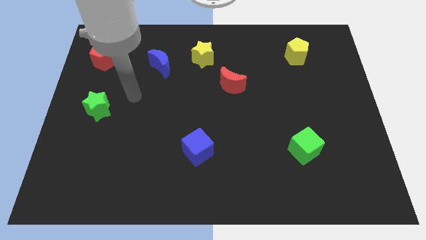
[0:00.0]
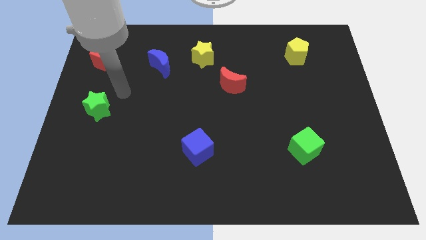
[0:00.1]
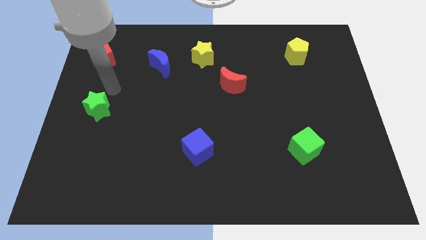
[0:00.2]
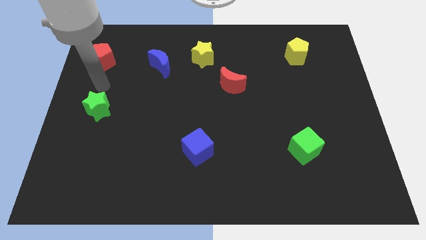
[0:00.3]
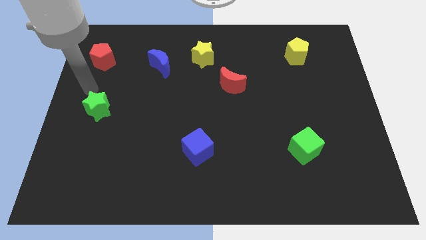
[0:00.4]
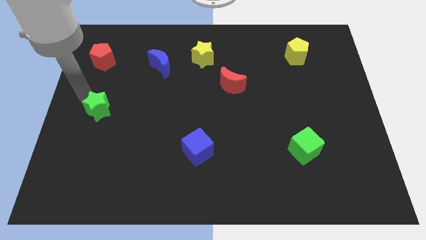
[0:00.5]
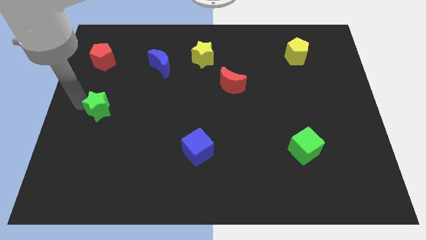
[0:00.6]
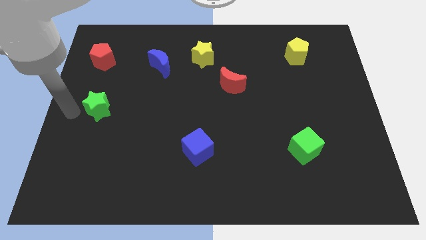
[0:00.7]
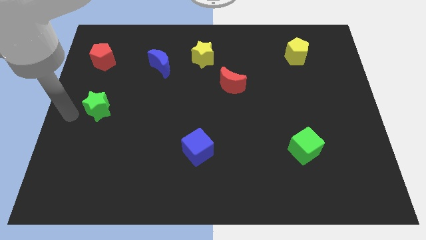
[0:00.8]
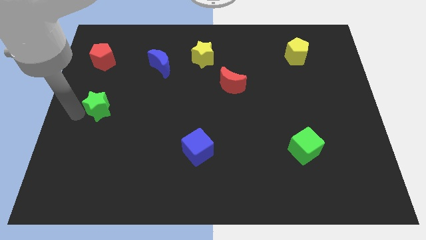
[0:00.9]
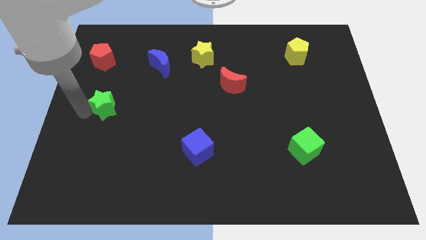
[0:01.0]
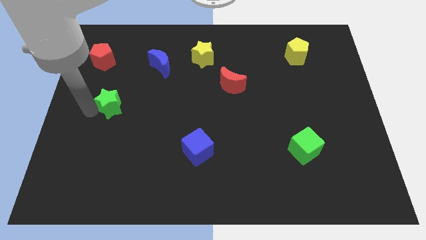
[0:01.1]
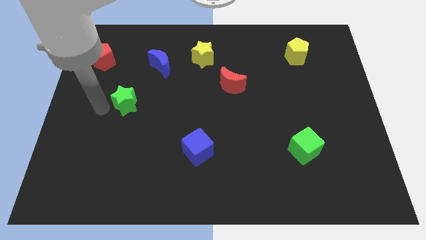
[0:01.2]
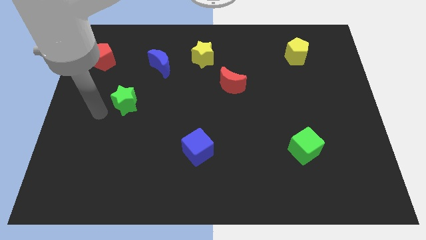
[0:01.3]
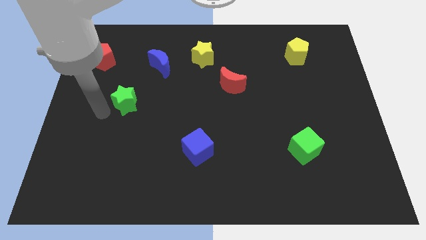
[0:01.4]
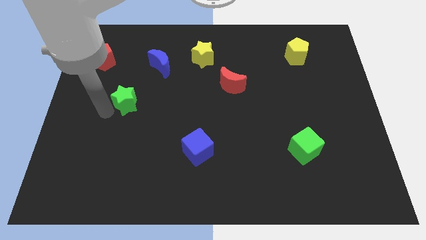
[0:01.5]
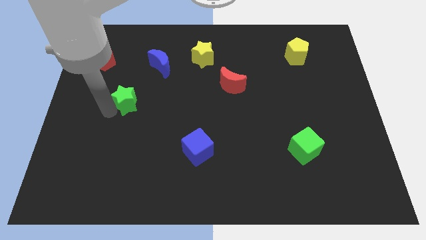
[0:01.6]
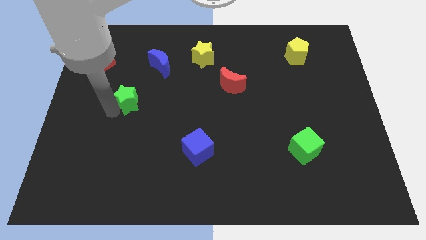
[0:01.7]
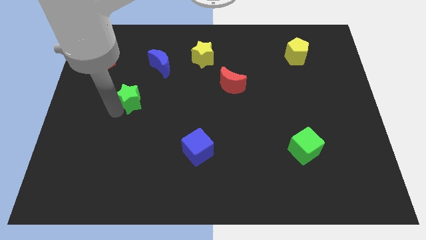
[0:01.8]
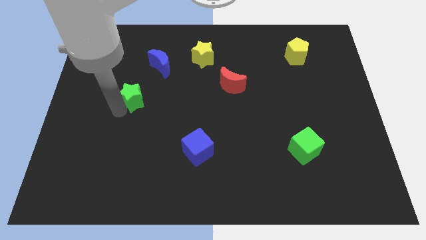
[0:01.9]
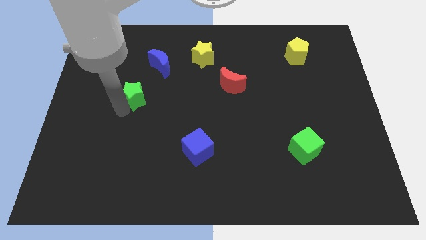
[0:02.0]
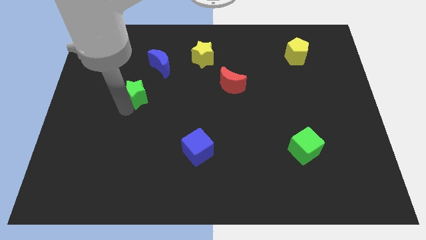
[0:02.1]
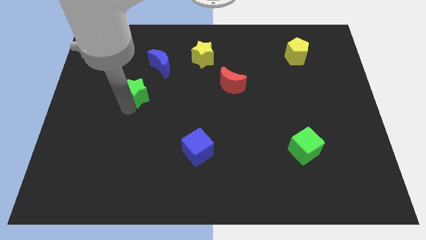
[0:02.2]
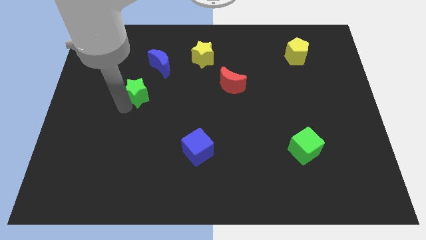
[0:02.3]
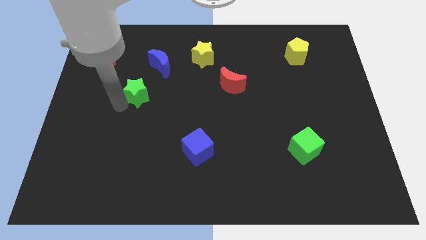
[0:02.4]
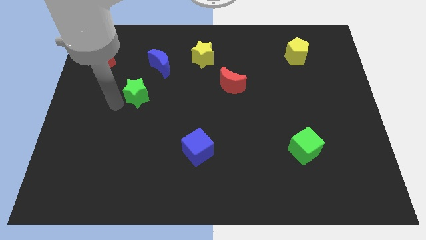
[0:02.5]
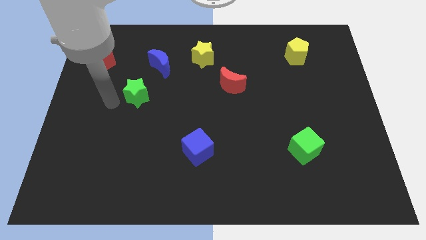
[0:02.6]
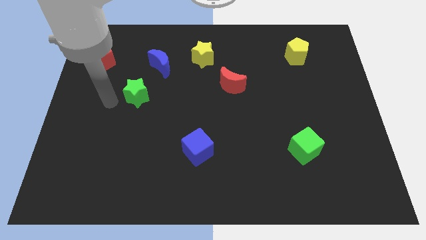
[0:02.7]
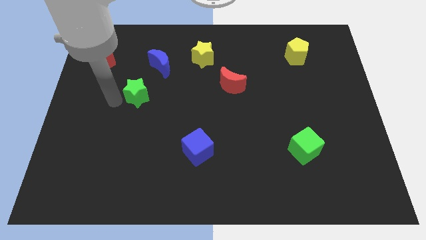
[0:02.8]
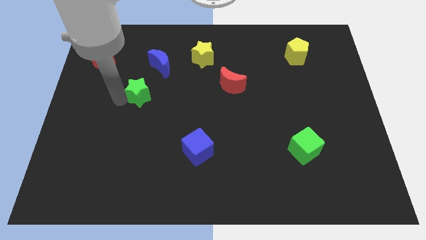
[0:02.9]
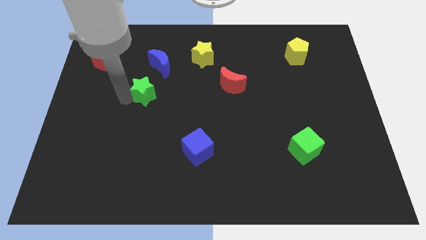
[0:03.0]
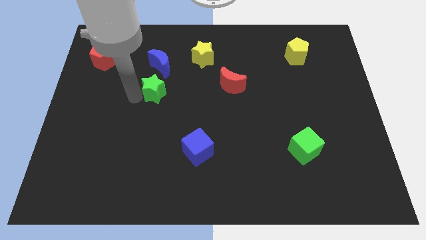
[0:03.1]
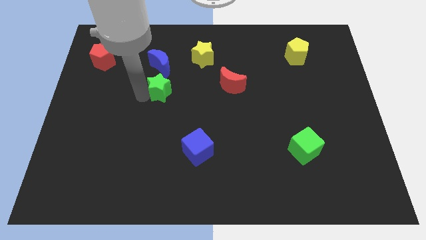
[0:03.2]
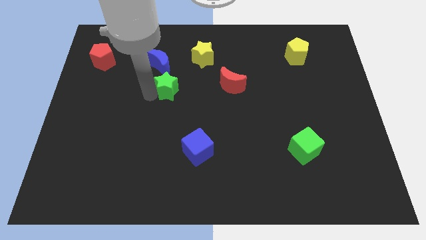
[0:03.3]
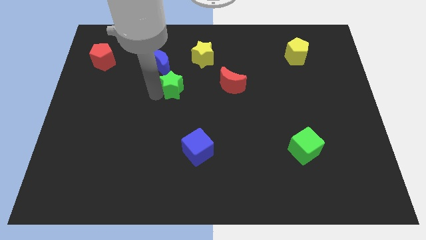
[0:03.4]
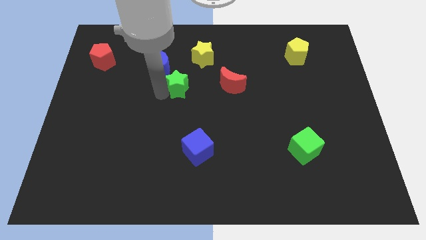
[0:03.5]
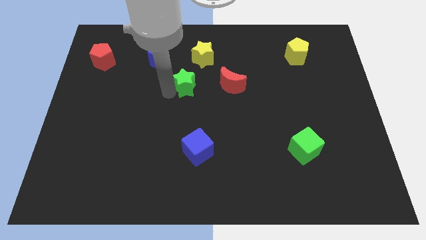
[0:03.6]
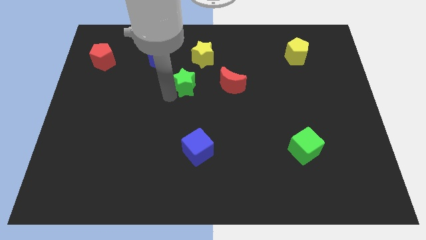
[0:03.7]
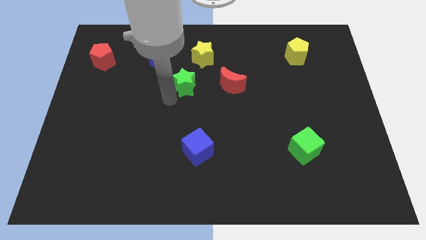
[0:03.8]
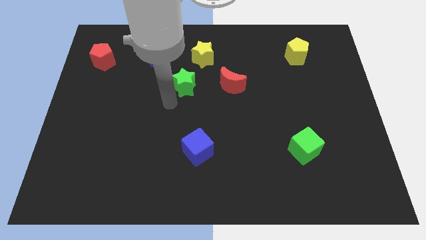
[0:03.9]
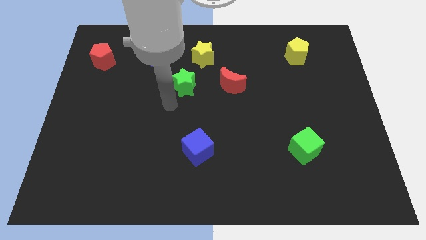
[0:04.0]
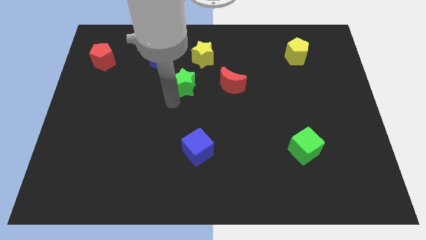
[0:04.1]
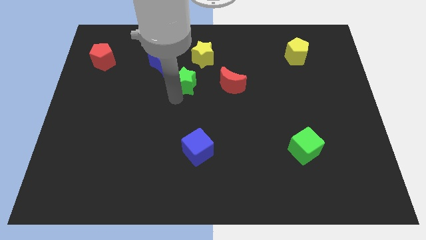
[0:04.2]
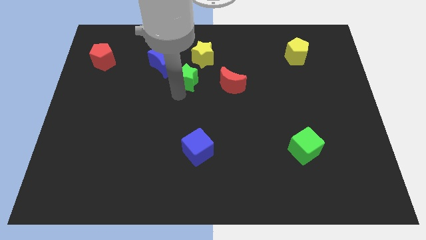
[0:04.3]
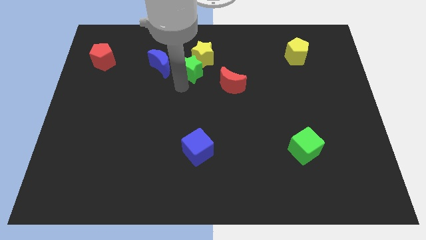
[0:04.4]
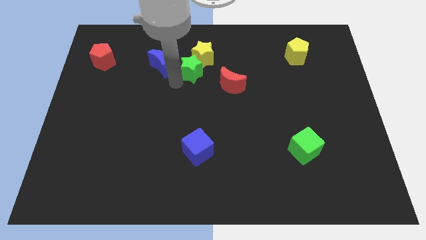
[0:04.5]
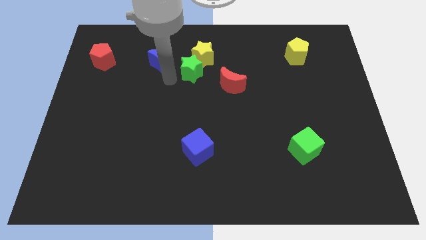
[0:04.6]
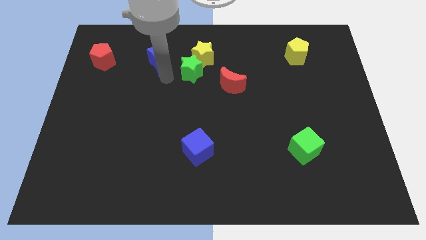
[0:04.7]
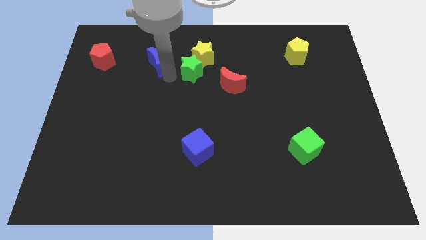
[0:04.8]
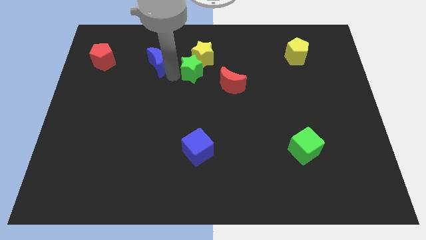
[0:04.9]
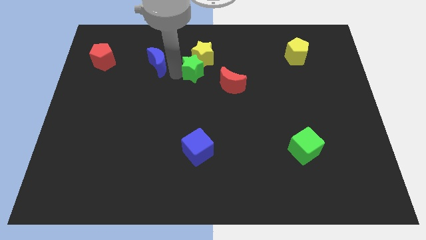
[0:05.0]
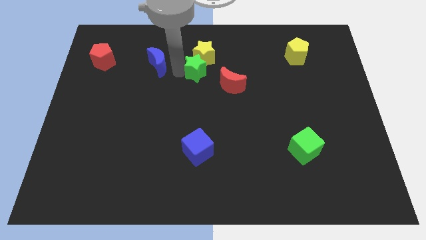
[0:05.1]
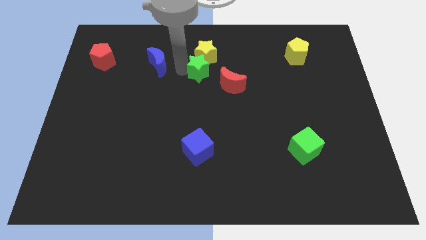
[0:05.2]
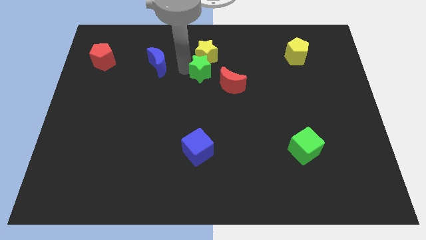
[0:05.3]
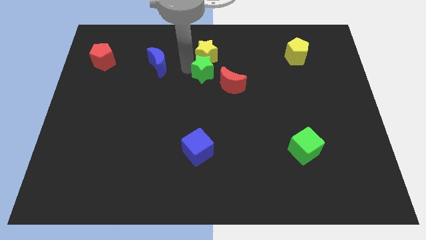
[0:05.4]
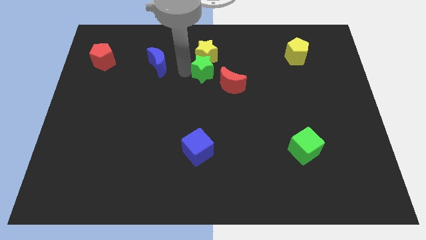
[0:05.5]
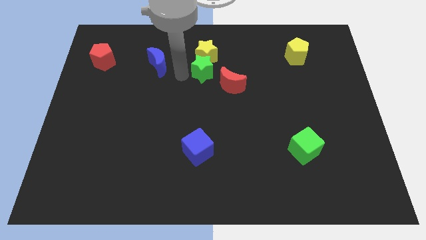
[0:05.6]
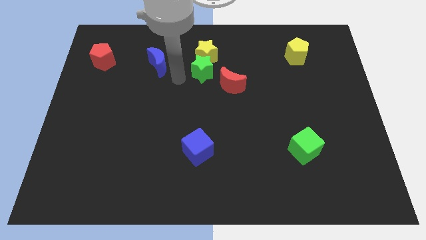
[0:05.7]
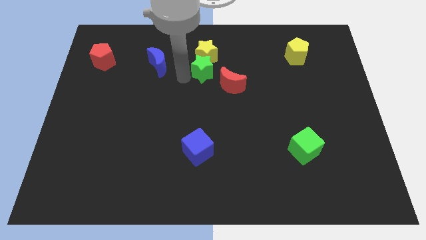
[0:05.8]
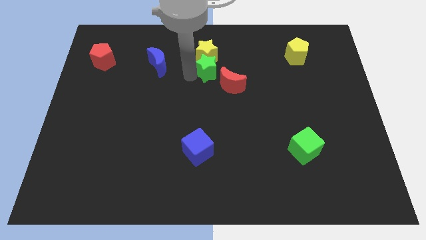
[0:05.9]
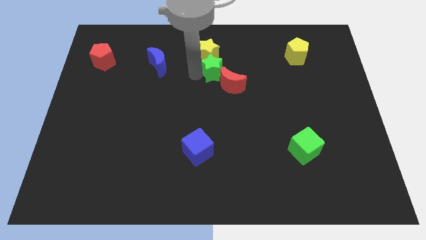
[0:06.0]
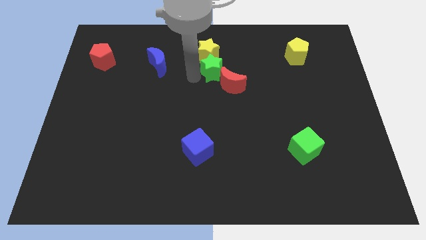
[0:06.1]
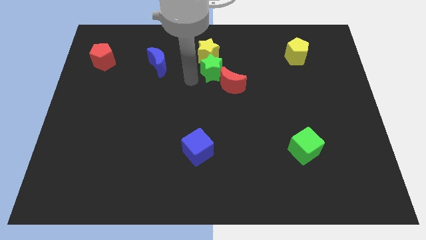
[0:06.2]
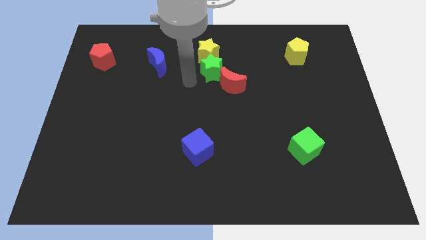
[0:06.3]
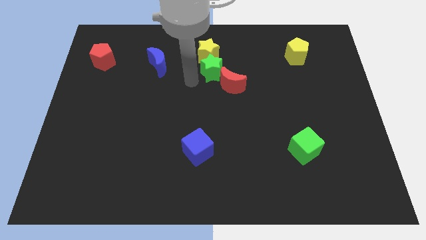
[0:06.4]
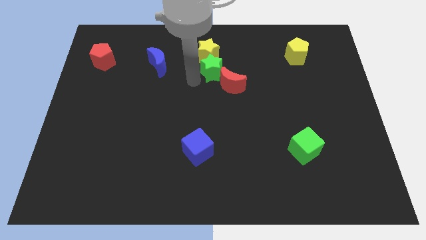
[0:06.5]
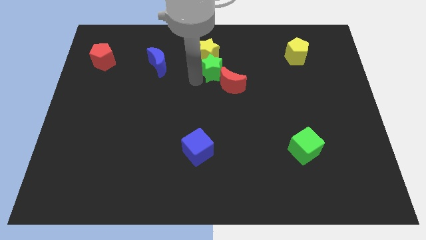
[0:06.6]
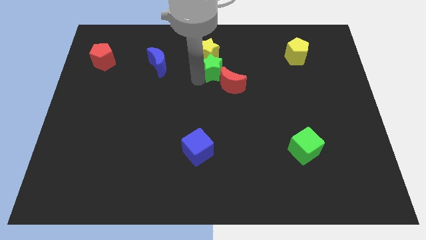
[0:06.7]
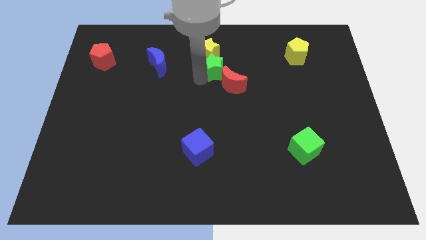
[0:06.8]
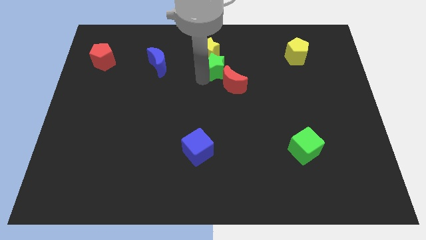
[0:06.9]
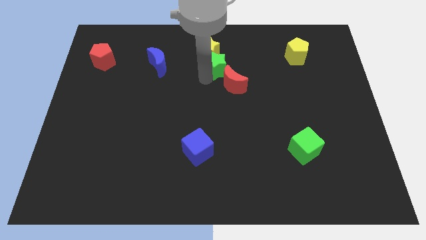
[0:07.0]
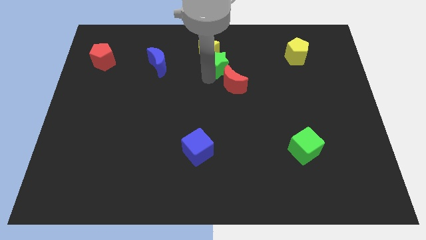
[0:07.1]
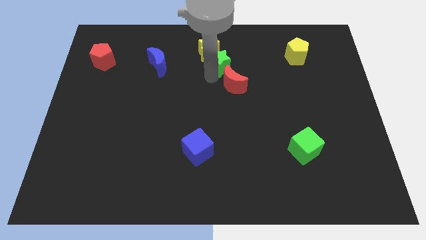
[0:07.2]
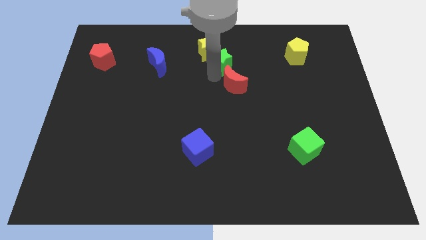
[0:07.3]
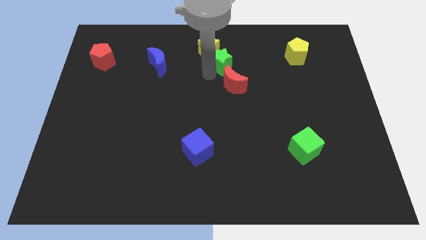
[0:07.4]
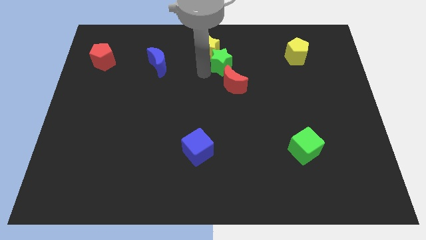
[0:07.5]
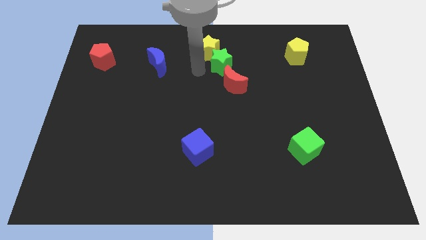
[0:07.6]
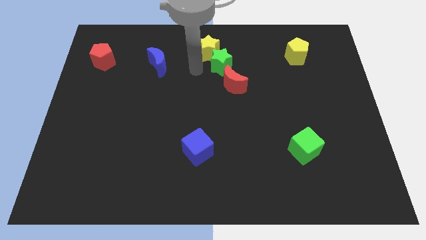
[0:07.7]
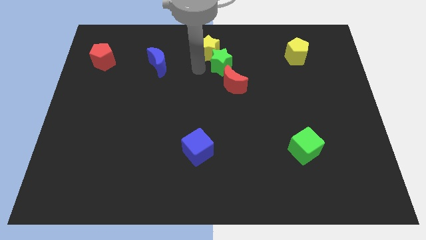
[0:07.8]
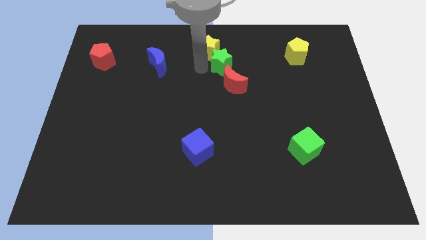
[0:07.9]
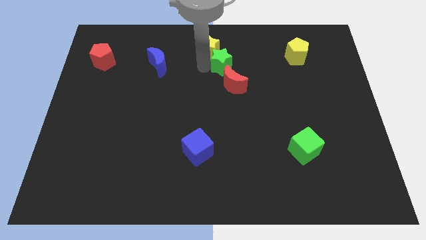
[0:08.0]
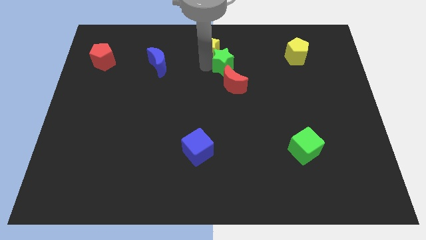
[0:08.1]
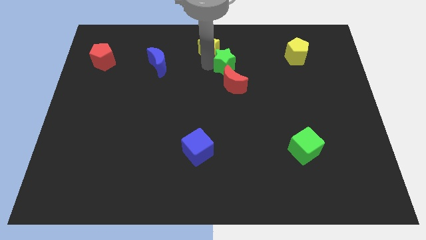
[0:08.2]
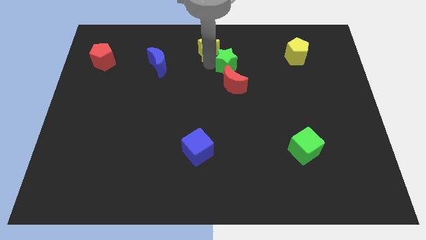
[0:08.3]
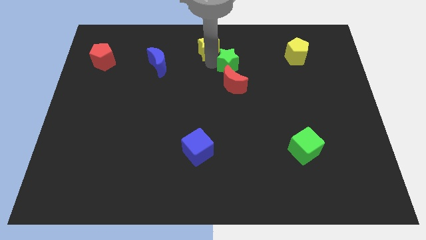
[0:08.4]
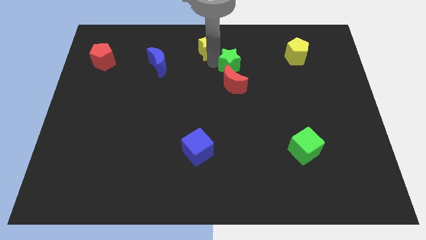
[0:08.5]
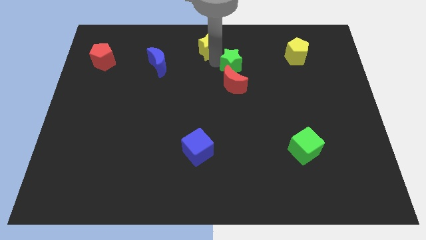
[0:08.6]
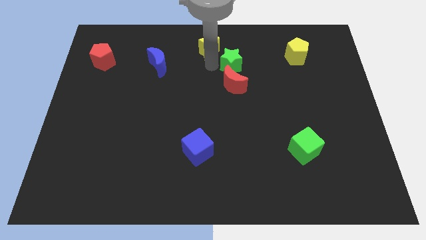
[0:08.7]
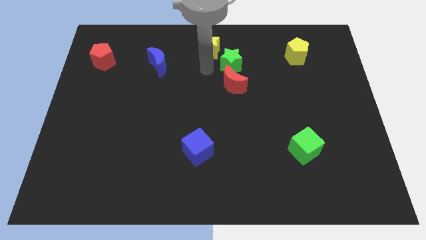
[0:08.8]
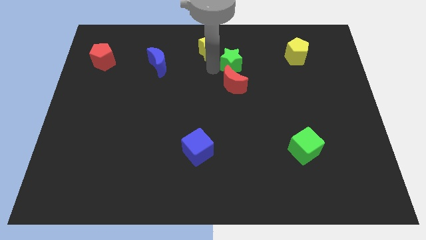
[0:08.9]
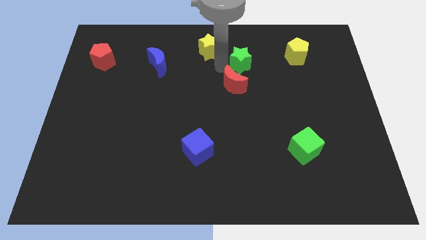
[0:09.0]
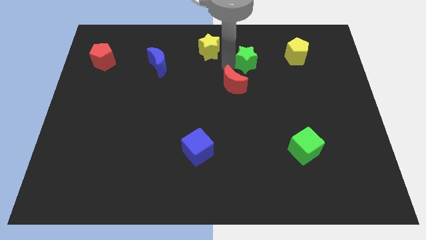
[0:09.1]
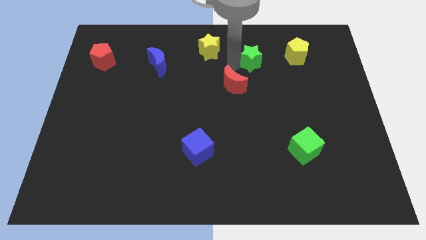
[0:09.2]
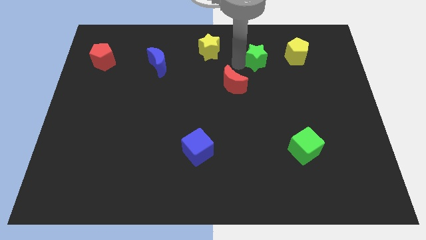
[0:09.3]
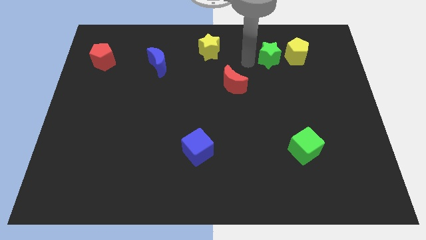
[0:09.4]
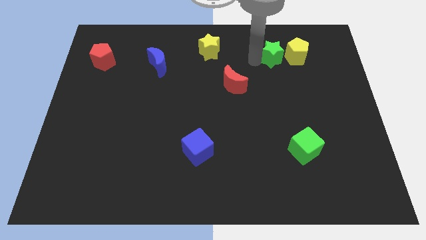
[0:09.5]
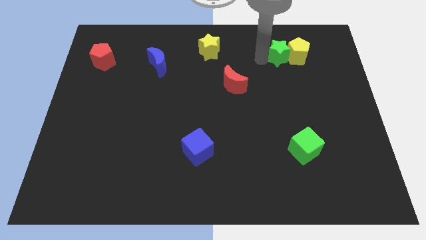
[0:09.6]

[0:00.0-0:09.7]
move the green star next to the yellow pentagon
